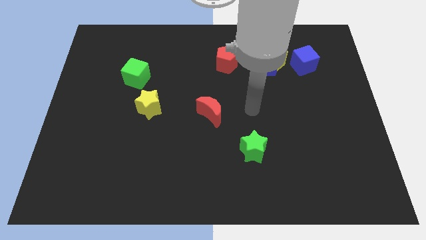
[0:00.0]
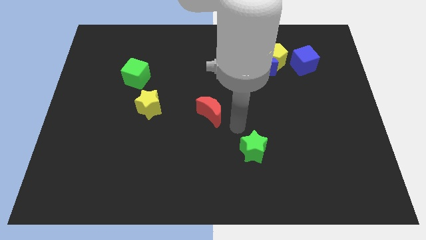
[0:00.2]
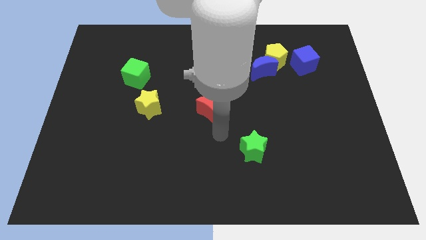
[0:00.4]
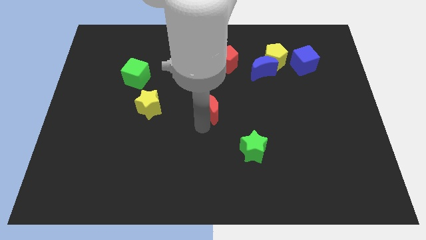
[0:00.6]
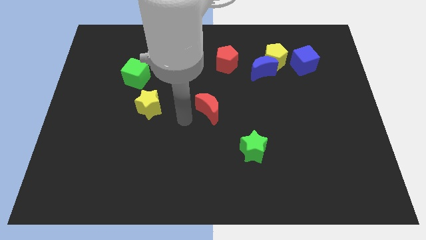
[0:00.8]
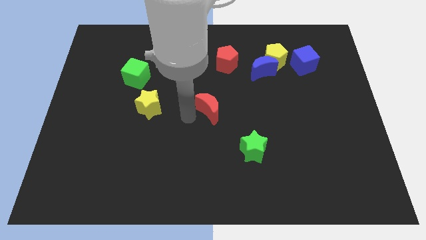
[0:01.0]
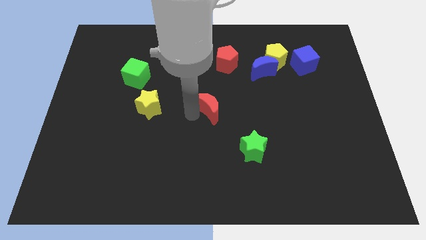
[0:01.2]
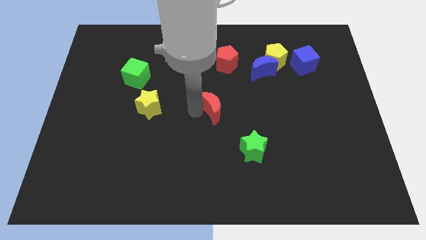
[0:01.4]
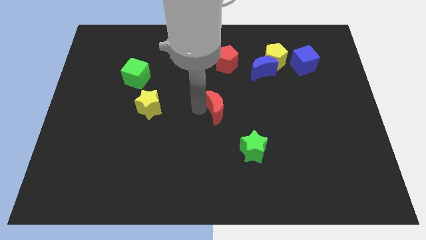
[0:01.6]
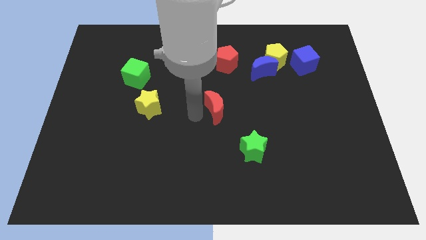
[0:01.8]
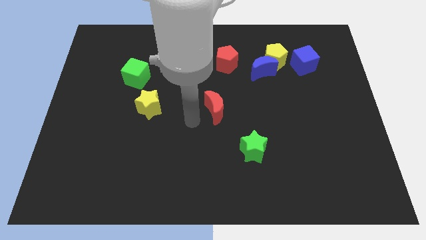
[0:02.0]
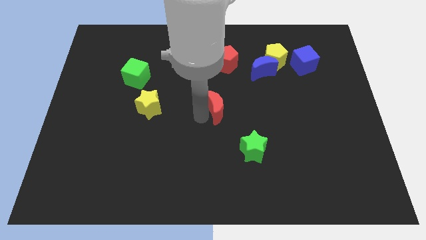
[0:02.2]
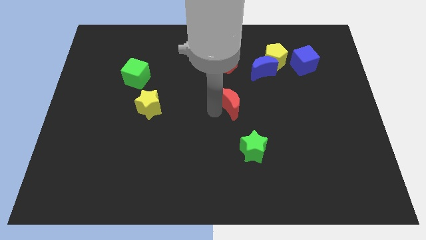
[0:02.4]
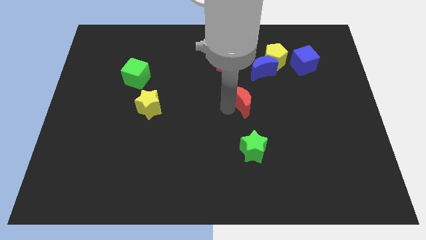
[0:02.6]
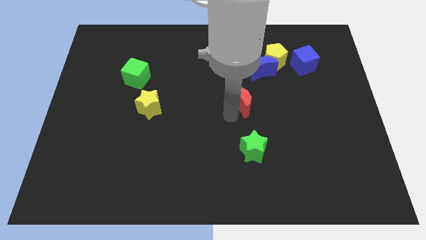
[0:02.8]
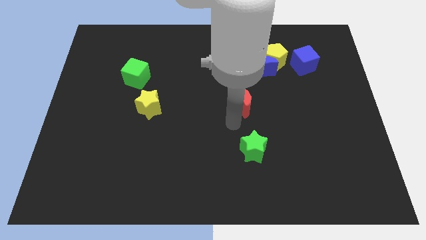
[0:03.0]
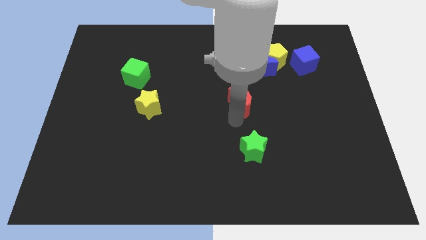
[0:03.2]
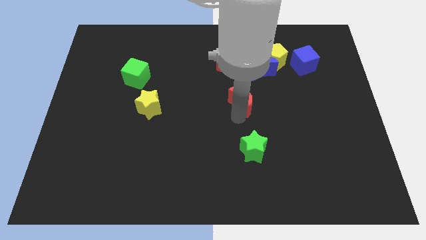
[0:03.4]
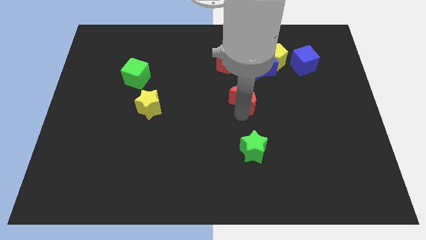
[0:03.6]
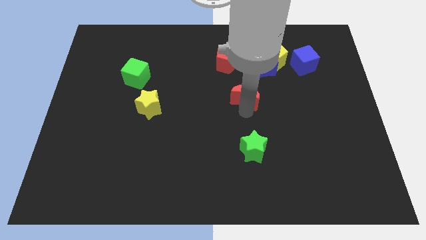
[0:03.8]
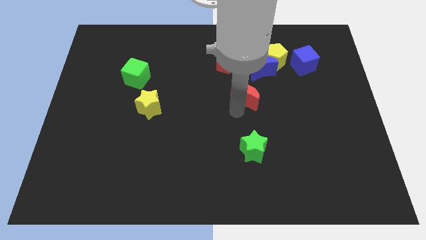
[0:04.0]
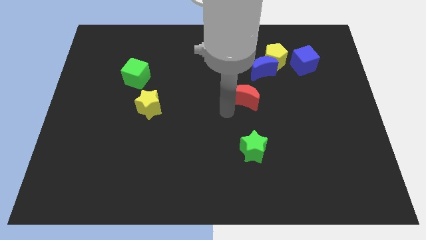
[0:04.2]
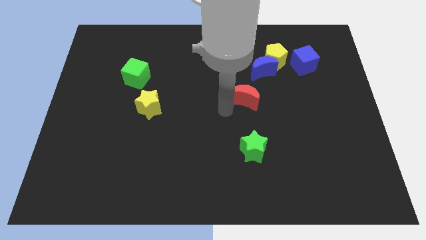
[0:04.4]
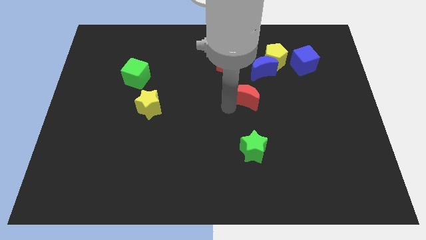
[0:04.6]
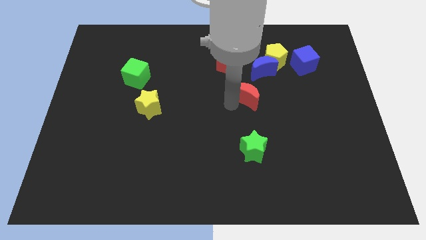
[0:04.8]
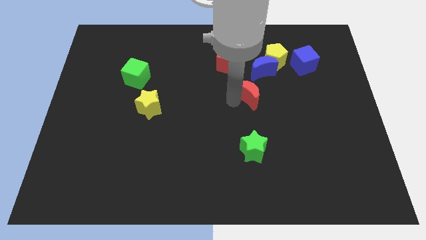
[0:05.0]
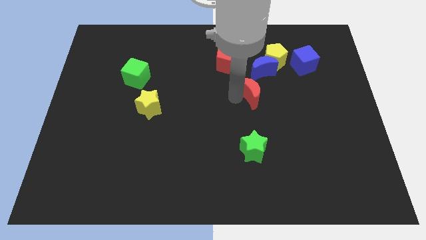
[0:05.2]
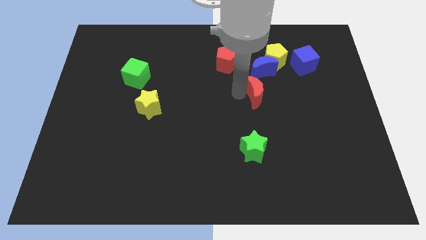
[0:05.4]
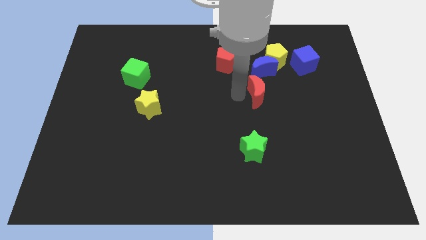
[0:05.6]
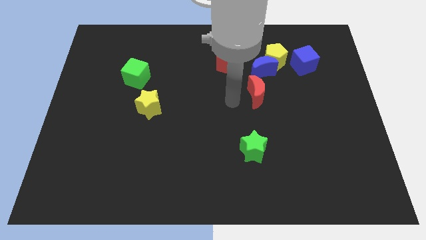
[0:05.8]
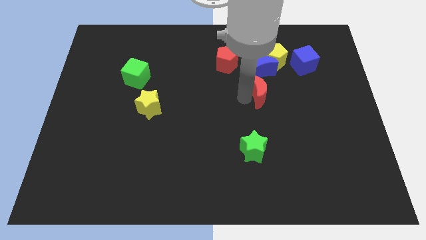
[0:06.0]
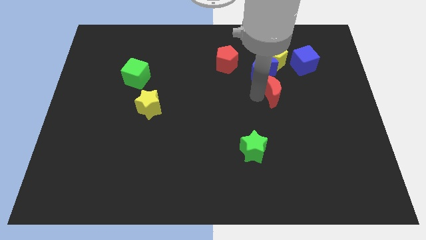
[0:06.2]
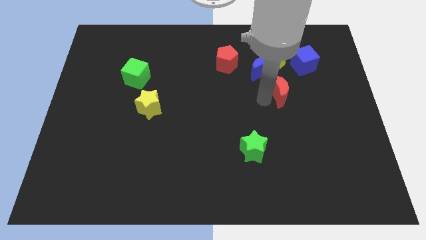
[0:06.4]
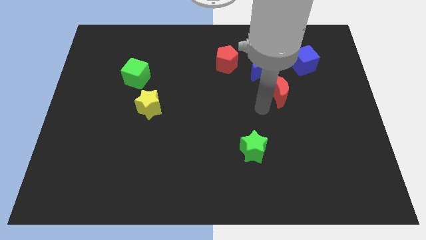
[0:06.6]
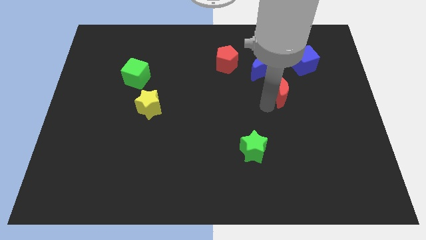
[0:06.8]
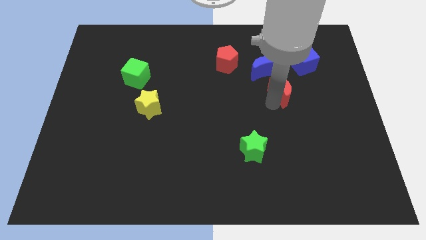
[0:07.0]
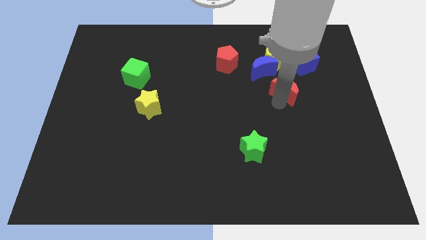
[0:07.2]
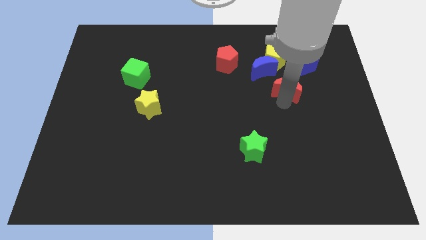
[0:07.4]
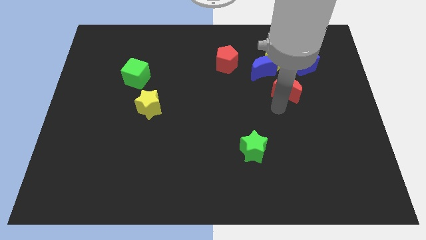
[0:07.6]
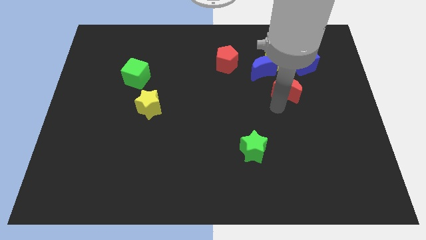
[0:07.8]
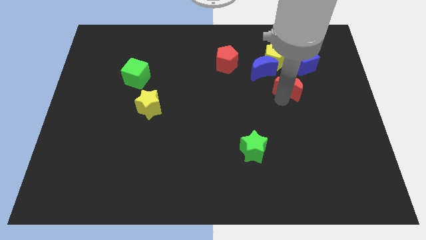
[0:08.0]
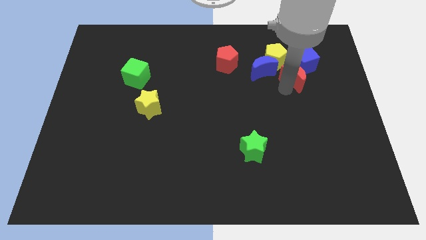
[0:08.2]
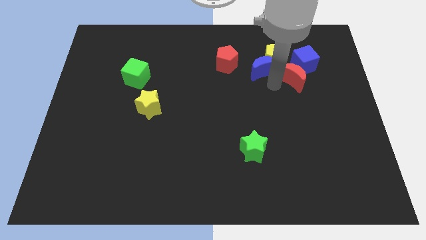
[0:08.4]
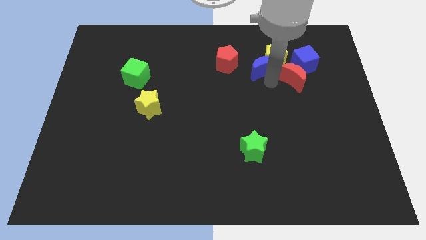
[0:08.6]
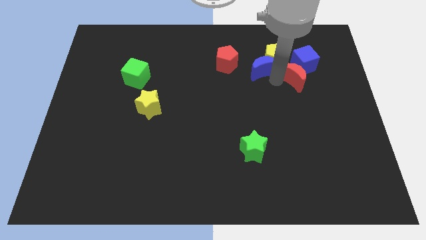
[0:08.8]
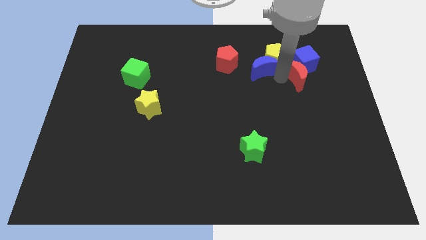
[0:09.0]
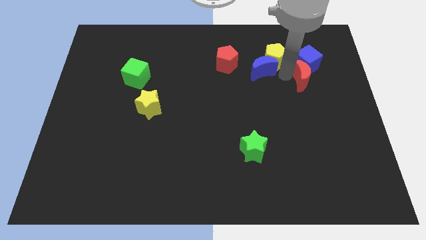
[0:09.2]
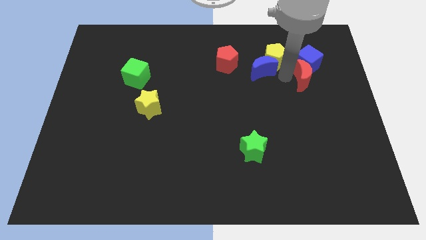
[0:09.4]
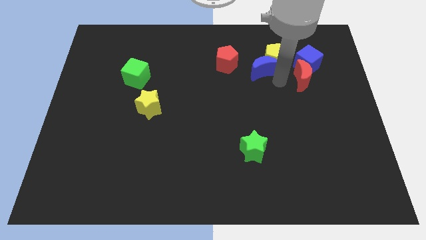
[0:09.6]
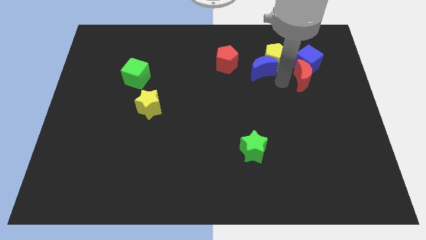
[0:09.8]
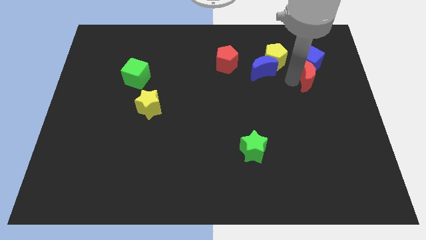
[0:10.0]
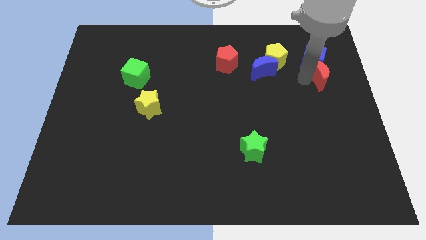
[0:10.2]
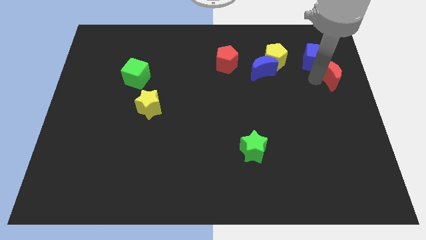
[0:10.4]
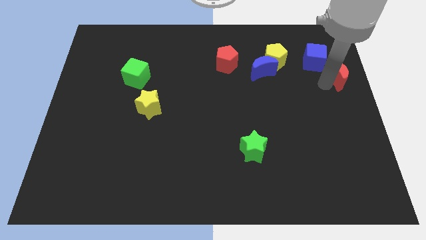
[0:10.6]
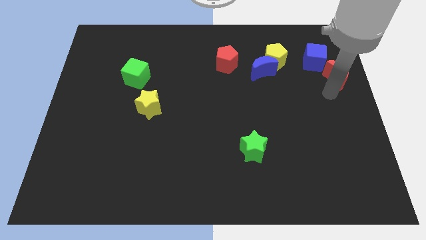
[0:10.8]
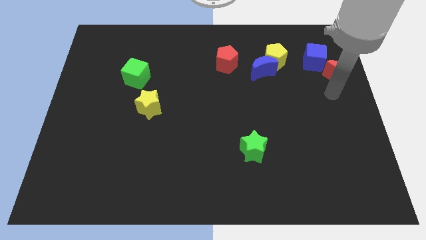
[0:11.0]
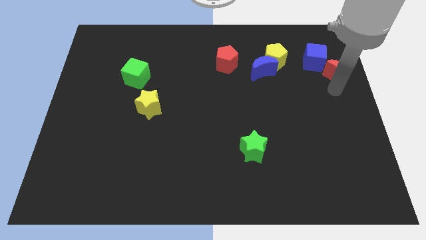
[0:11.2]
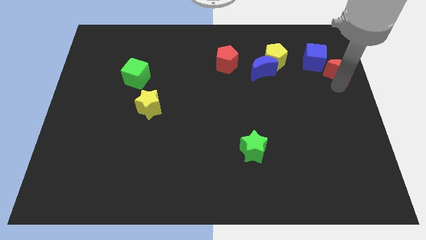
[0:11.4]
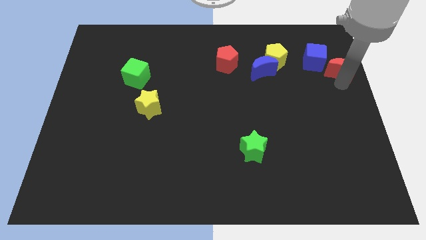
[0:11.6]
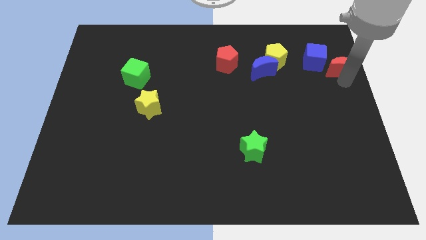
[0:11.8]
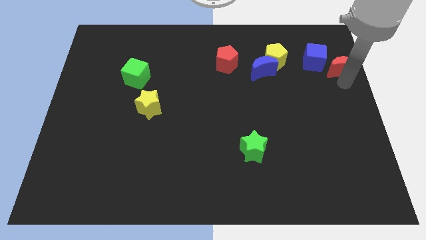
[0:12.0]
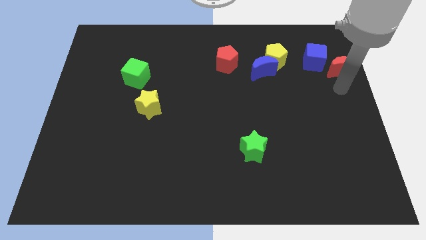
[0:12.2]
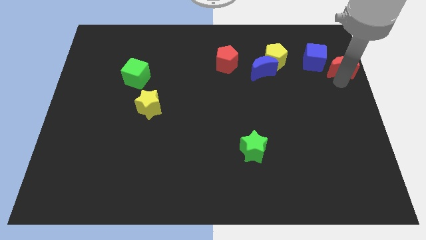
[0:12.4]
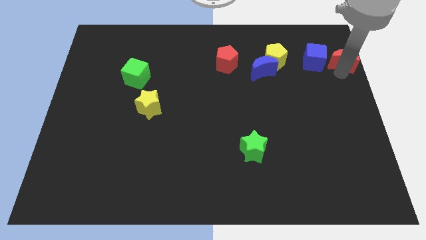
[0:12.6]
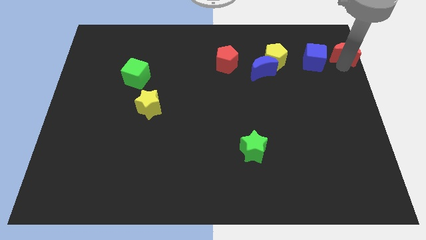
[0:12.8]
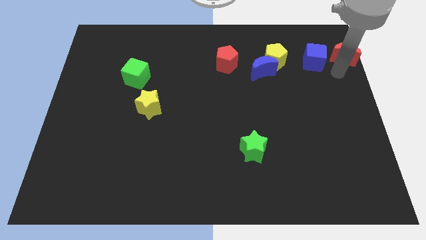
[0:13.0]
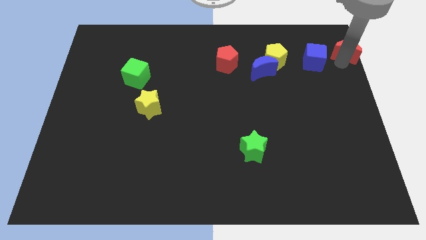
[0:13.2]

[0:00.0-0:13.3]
push the red moon to the top right
